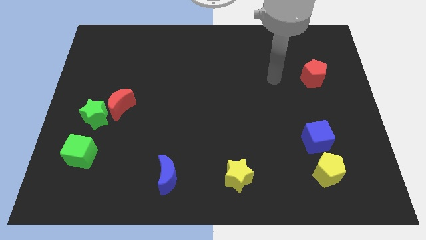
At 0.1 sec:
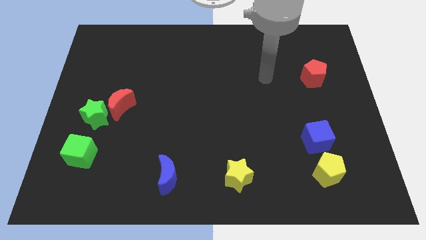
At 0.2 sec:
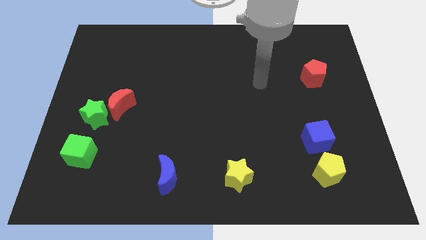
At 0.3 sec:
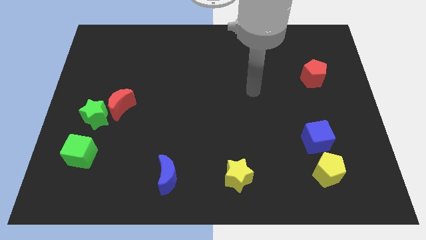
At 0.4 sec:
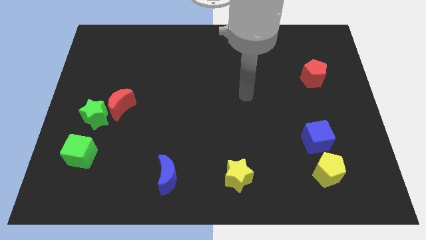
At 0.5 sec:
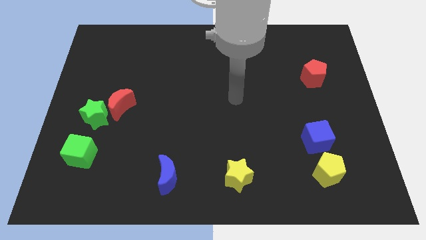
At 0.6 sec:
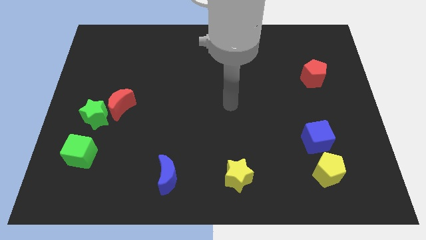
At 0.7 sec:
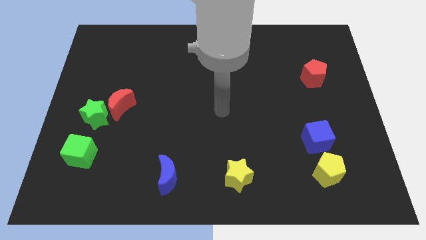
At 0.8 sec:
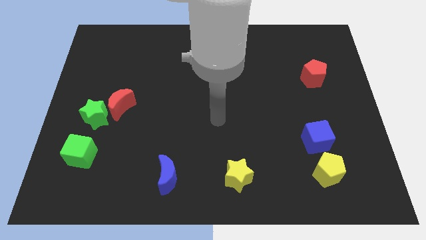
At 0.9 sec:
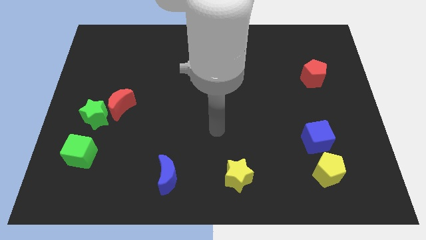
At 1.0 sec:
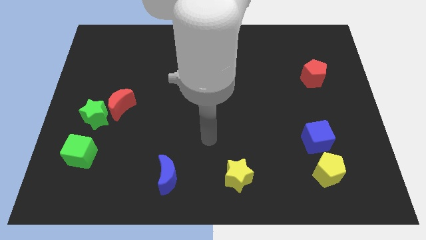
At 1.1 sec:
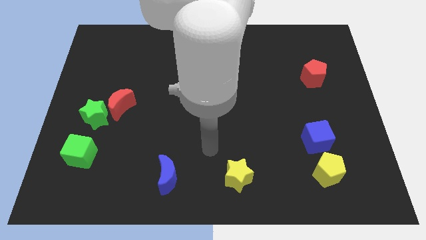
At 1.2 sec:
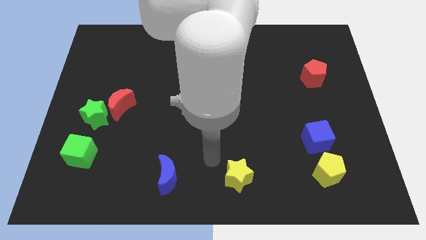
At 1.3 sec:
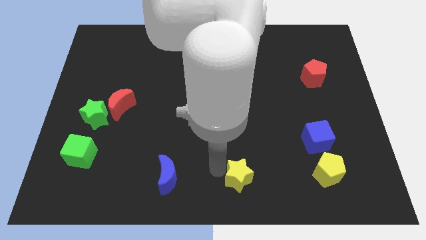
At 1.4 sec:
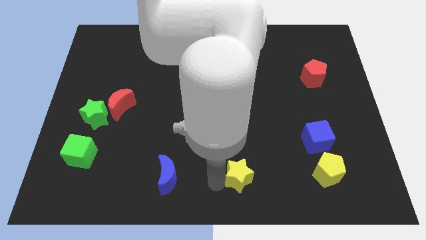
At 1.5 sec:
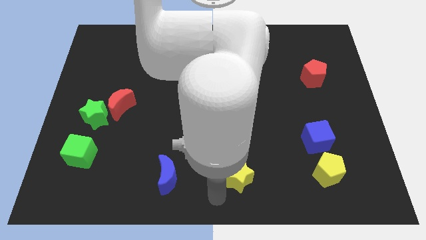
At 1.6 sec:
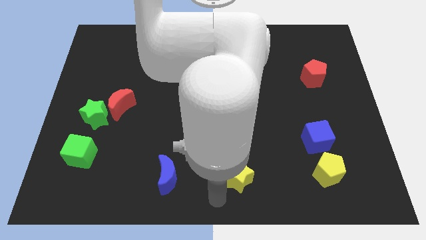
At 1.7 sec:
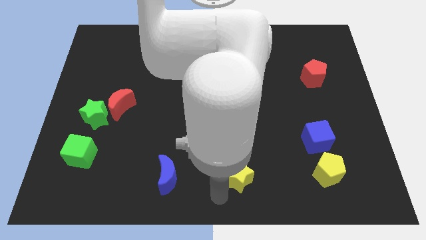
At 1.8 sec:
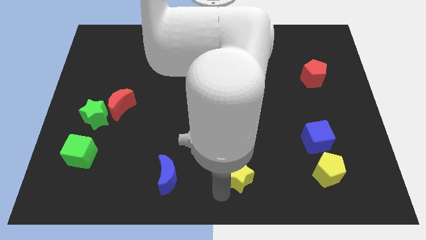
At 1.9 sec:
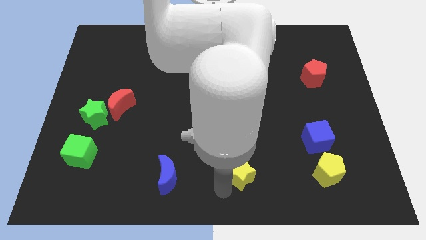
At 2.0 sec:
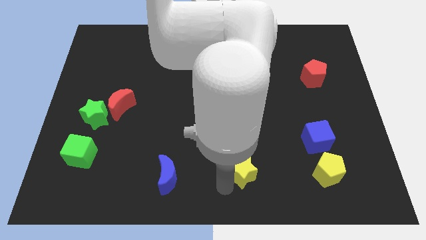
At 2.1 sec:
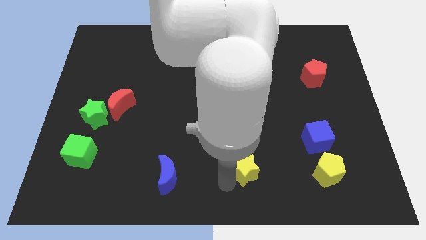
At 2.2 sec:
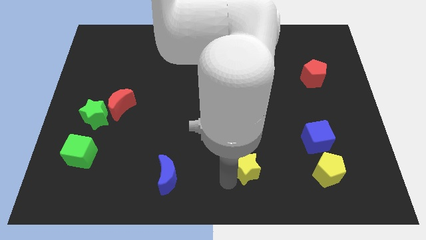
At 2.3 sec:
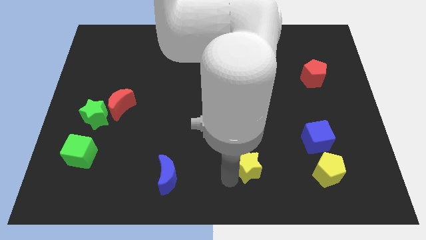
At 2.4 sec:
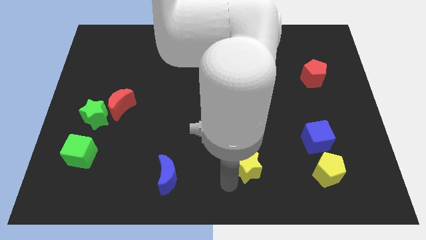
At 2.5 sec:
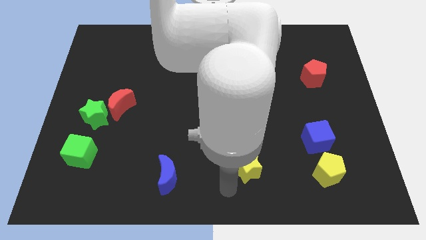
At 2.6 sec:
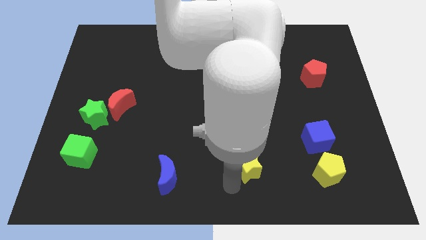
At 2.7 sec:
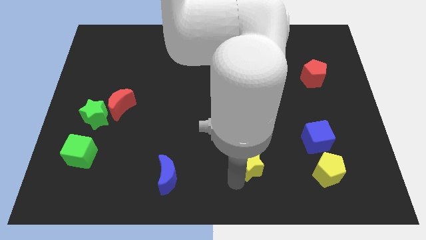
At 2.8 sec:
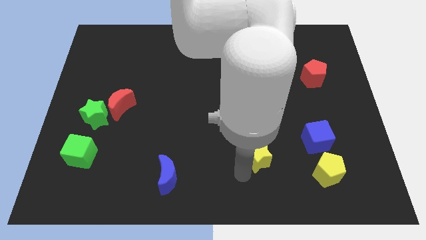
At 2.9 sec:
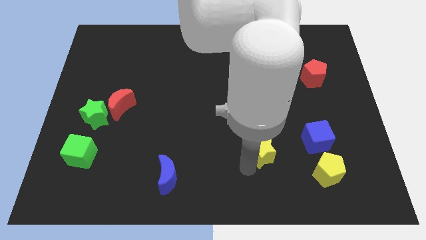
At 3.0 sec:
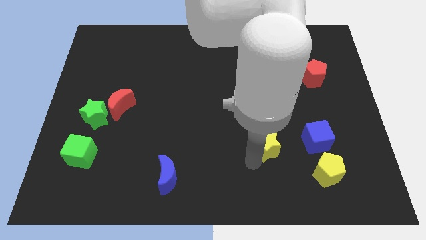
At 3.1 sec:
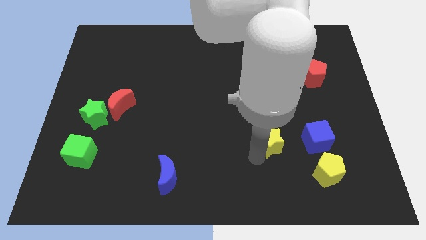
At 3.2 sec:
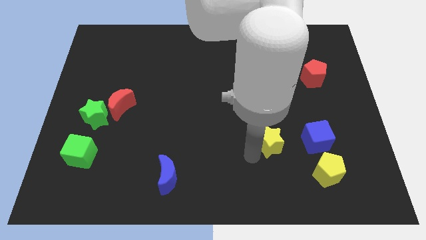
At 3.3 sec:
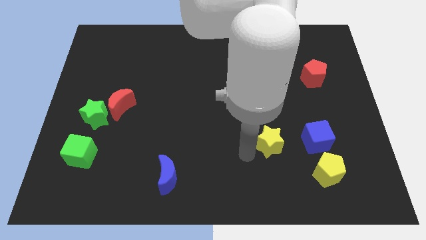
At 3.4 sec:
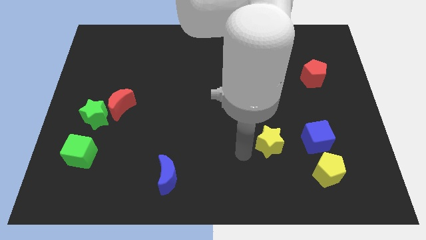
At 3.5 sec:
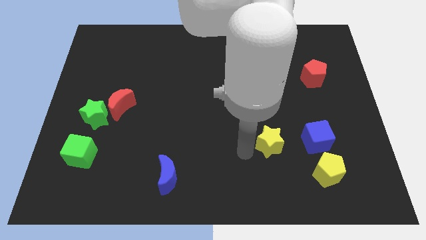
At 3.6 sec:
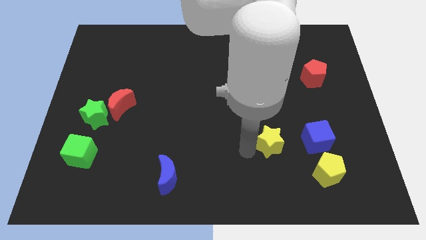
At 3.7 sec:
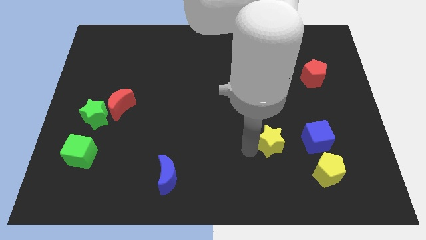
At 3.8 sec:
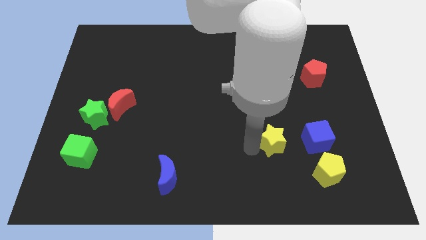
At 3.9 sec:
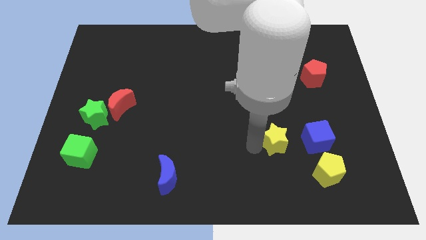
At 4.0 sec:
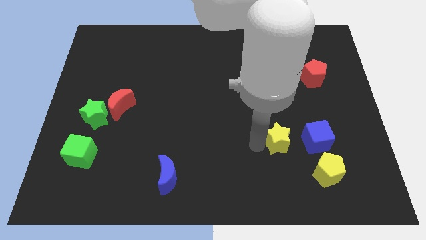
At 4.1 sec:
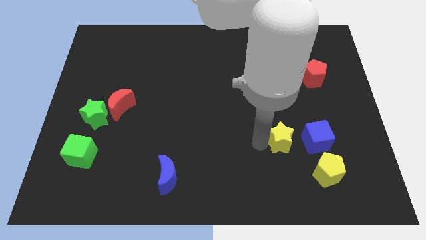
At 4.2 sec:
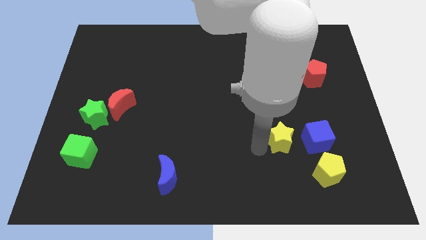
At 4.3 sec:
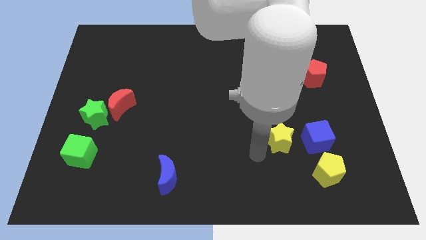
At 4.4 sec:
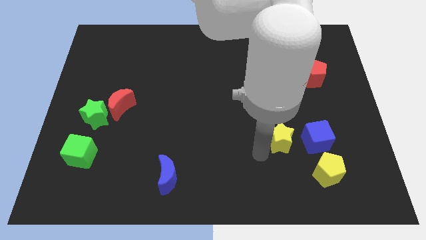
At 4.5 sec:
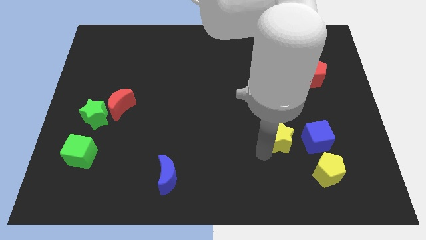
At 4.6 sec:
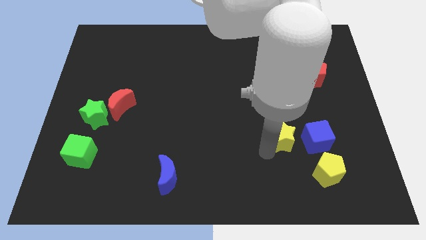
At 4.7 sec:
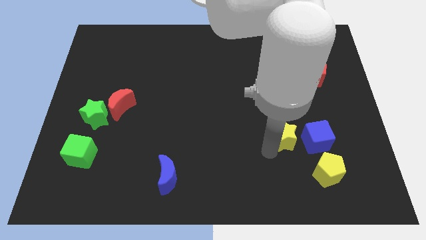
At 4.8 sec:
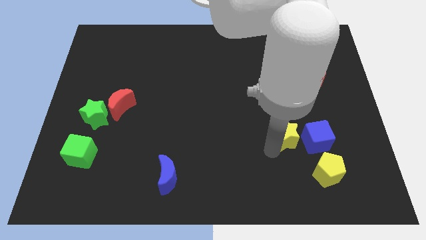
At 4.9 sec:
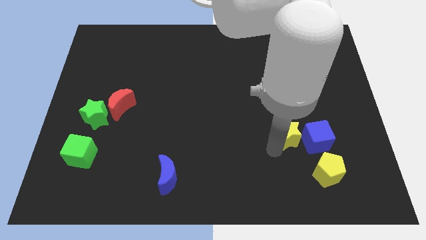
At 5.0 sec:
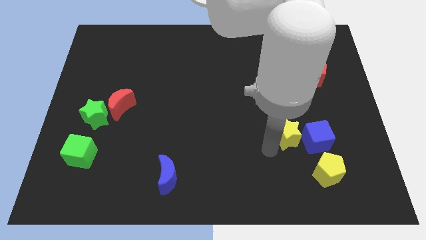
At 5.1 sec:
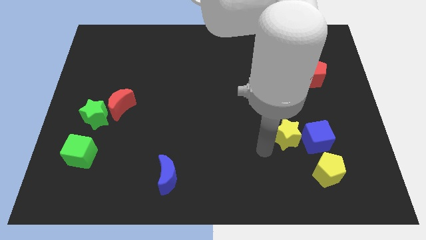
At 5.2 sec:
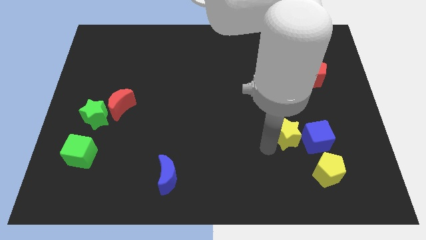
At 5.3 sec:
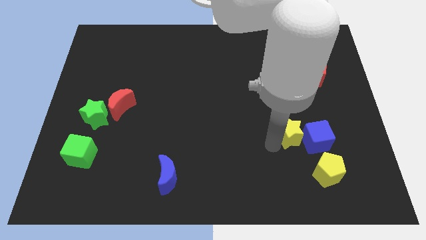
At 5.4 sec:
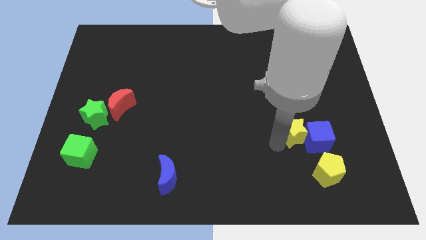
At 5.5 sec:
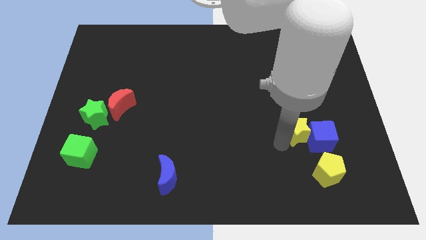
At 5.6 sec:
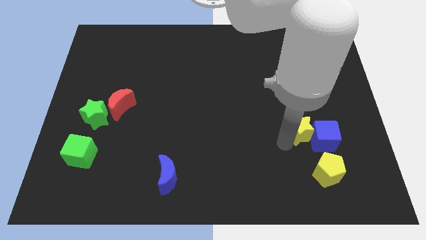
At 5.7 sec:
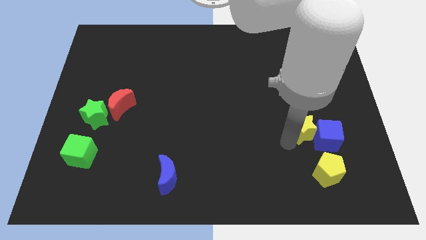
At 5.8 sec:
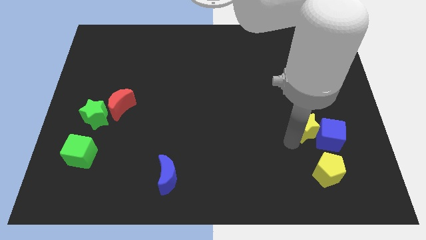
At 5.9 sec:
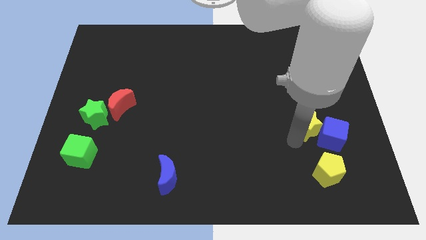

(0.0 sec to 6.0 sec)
slide the yellow star up and right diagonally

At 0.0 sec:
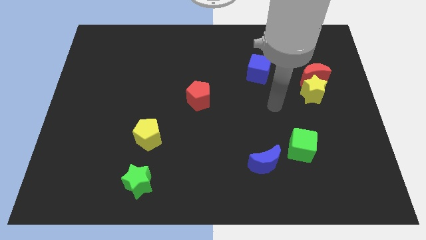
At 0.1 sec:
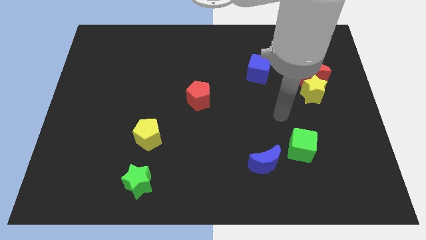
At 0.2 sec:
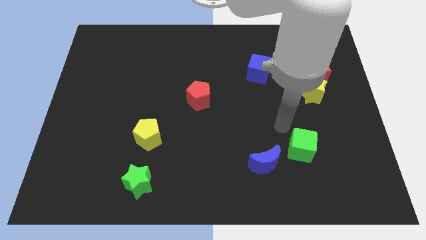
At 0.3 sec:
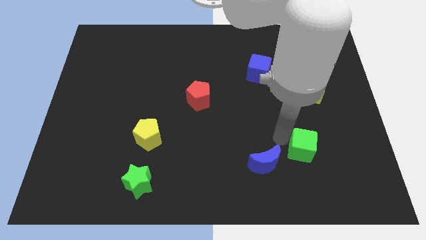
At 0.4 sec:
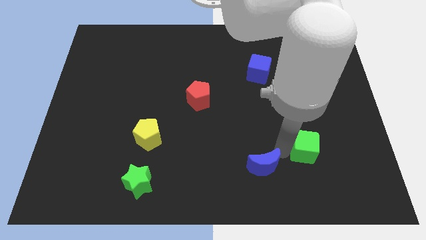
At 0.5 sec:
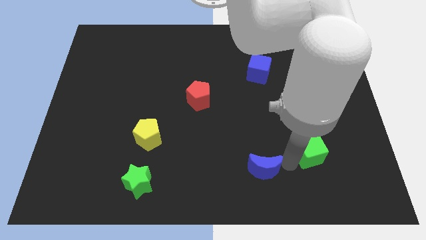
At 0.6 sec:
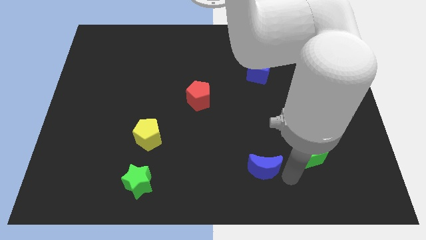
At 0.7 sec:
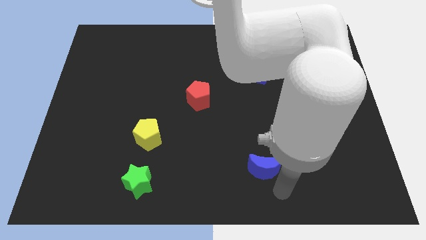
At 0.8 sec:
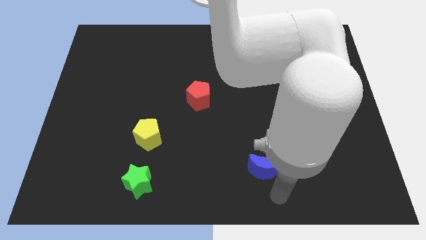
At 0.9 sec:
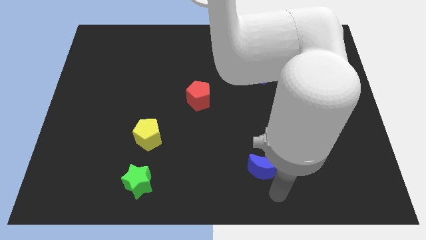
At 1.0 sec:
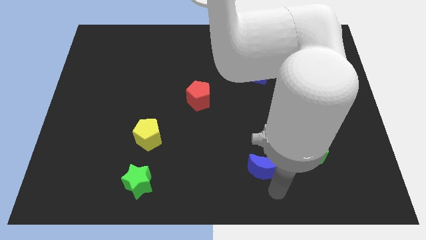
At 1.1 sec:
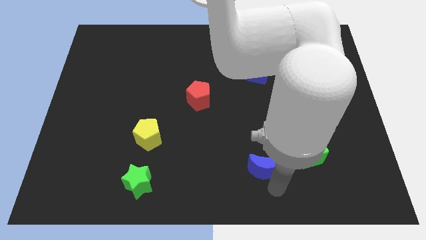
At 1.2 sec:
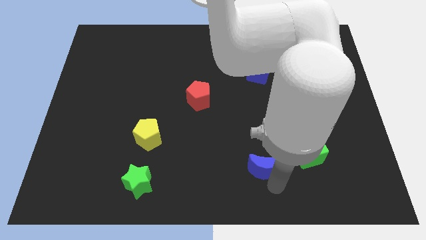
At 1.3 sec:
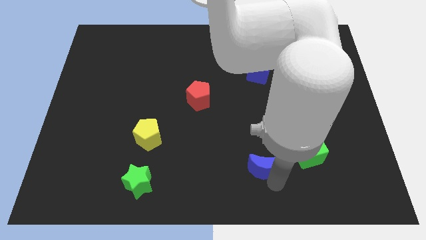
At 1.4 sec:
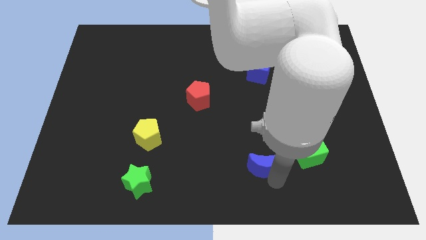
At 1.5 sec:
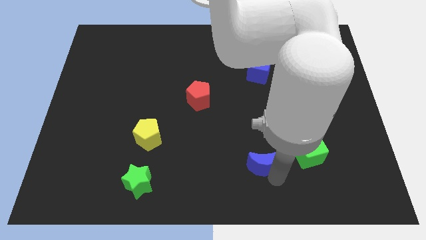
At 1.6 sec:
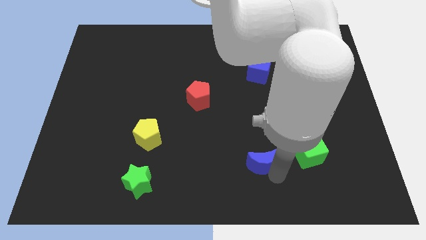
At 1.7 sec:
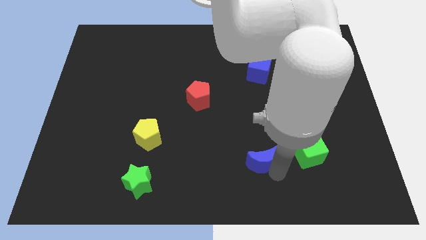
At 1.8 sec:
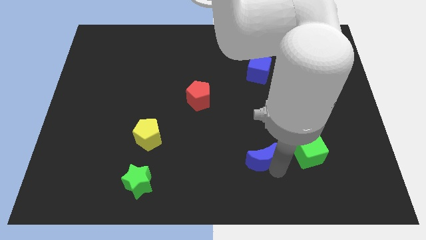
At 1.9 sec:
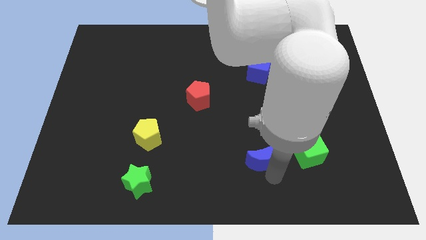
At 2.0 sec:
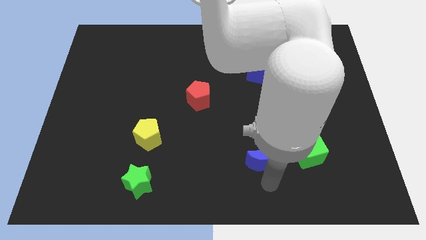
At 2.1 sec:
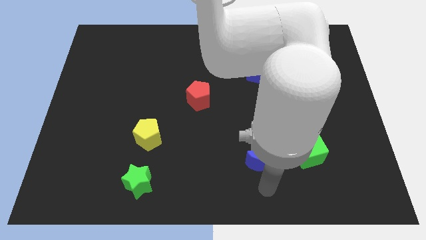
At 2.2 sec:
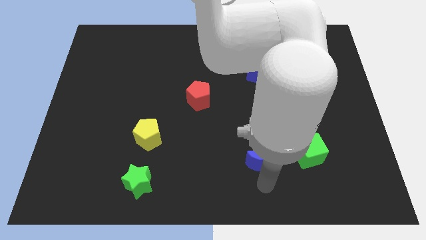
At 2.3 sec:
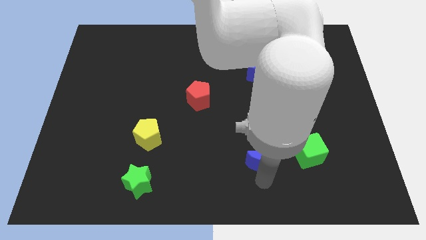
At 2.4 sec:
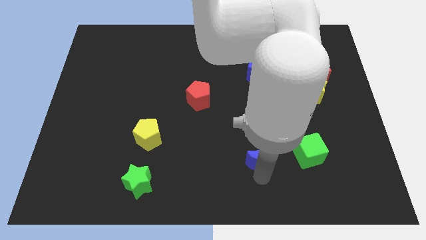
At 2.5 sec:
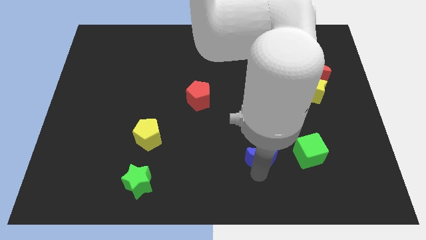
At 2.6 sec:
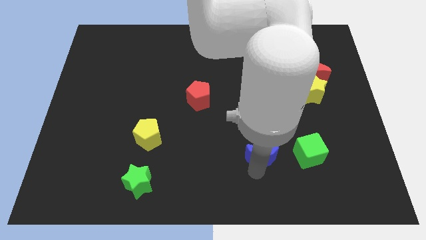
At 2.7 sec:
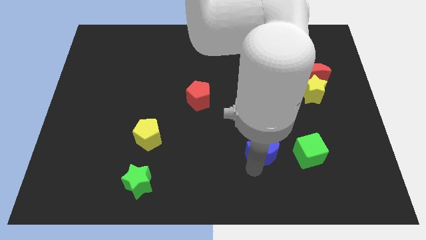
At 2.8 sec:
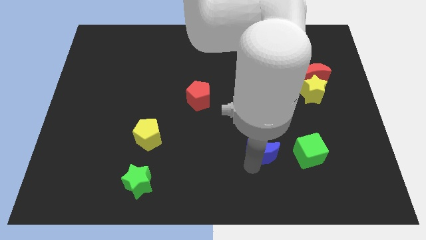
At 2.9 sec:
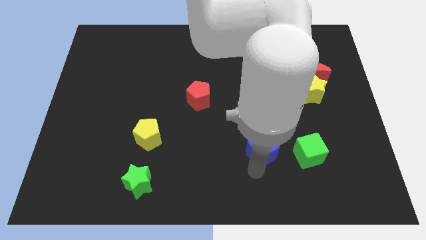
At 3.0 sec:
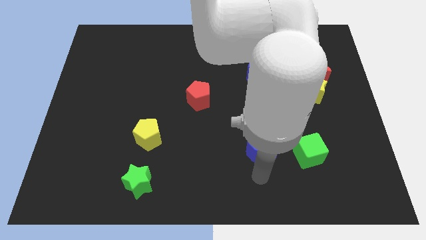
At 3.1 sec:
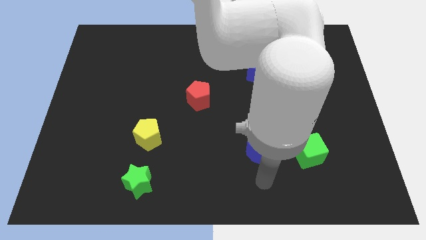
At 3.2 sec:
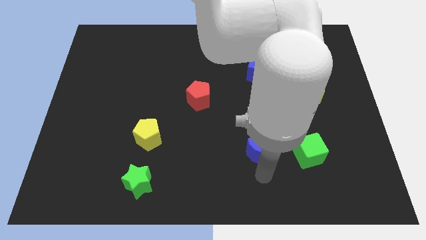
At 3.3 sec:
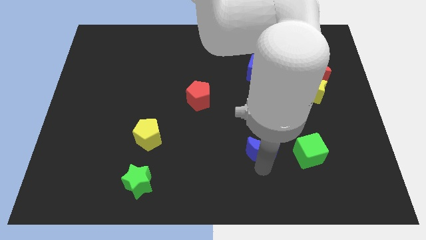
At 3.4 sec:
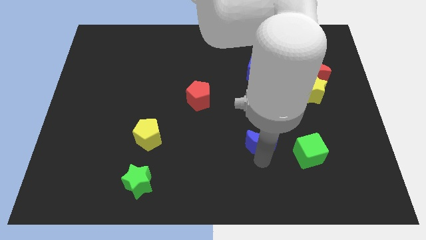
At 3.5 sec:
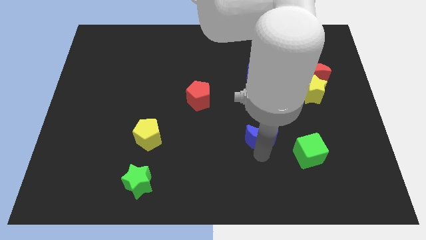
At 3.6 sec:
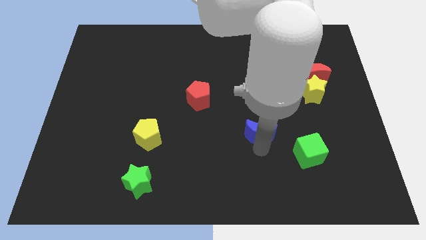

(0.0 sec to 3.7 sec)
move the blue moon a little bit upwards
